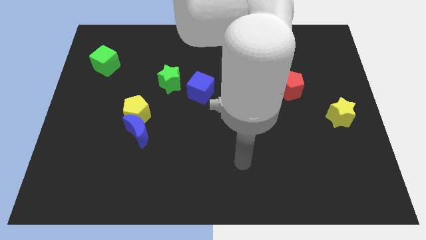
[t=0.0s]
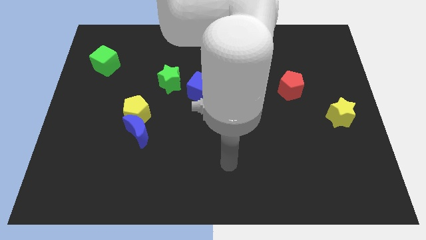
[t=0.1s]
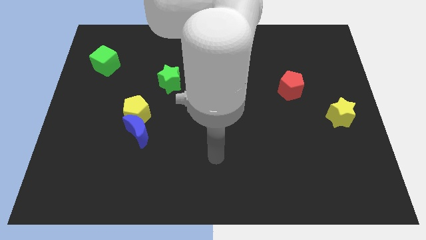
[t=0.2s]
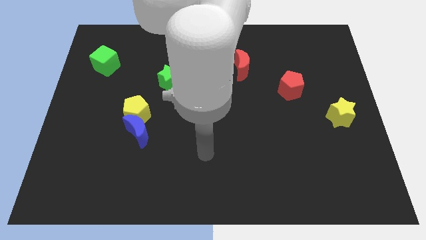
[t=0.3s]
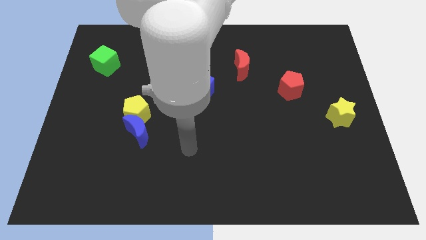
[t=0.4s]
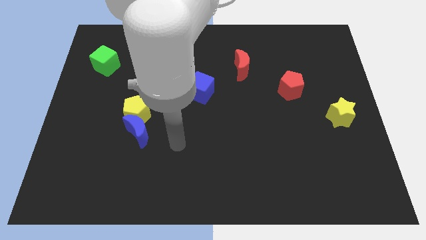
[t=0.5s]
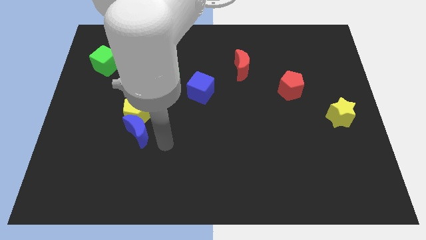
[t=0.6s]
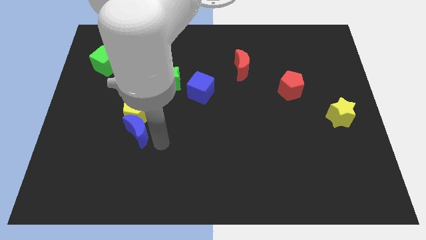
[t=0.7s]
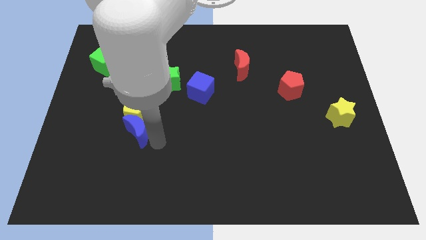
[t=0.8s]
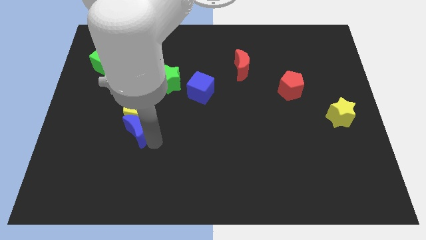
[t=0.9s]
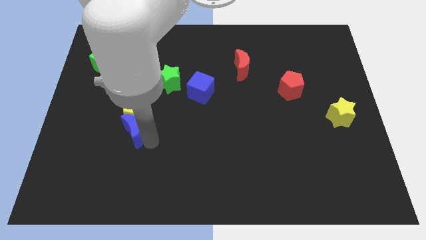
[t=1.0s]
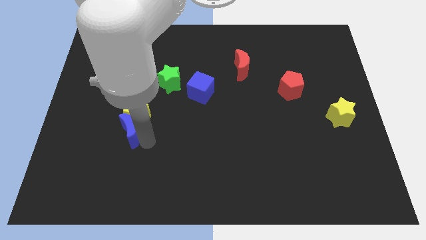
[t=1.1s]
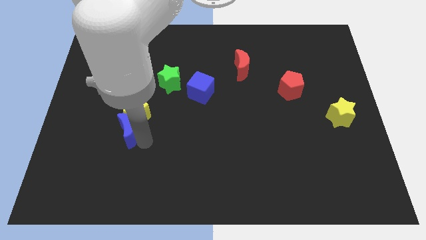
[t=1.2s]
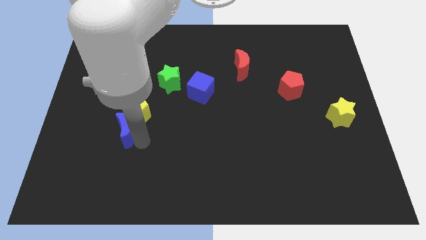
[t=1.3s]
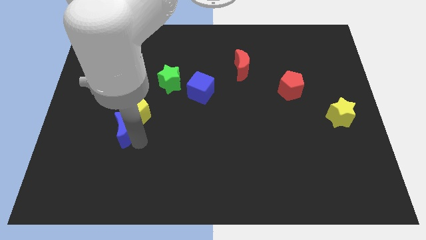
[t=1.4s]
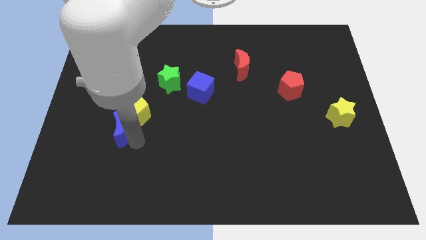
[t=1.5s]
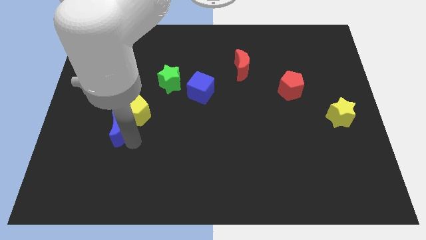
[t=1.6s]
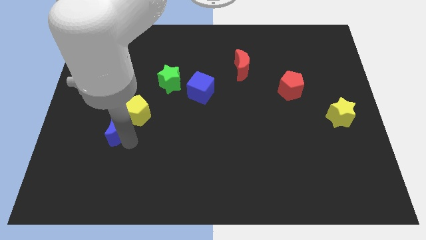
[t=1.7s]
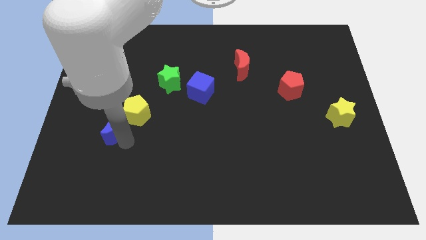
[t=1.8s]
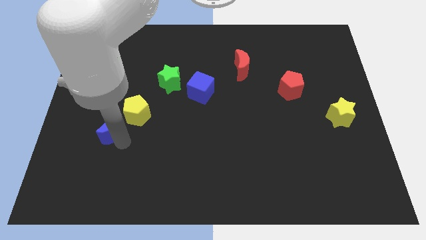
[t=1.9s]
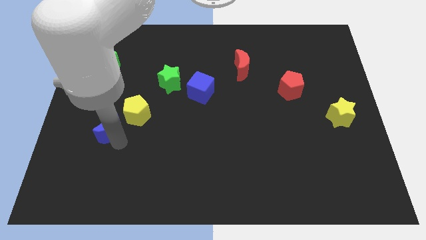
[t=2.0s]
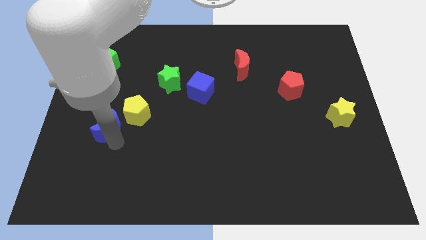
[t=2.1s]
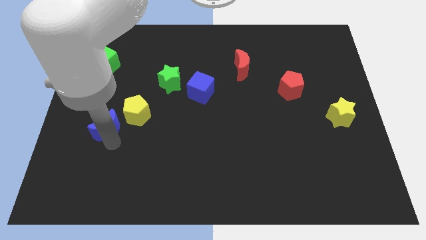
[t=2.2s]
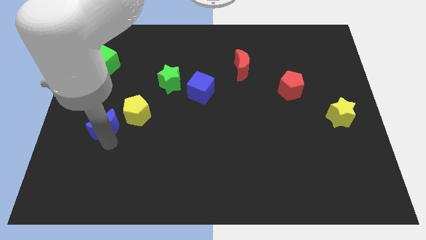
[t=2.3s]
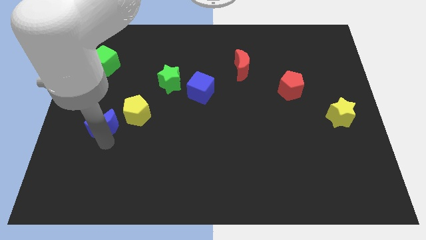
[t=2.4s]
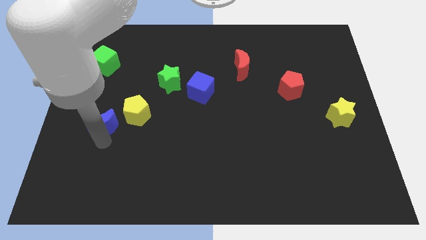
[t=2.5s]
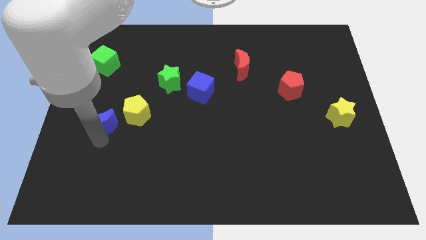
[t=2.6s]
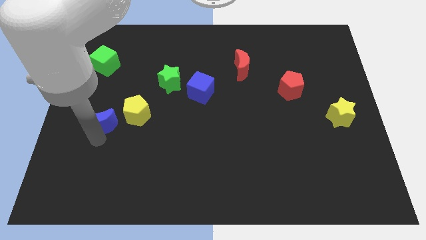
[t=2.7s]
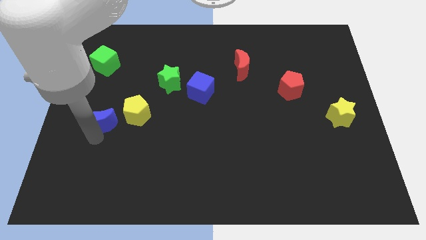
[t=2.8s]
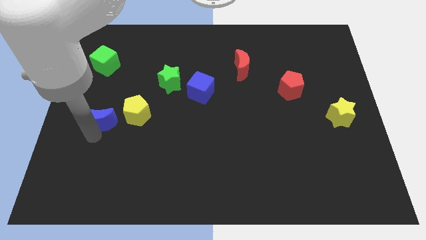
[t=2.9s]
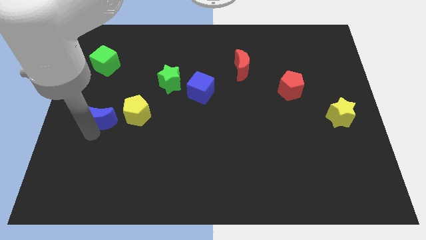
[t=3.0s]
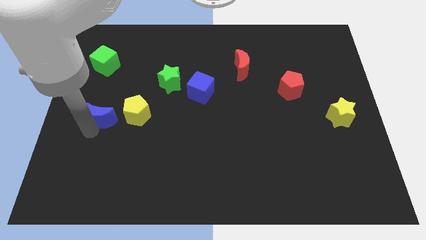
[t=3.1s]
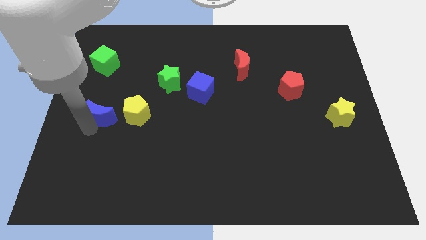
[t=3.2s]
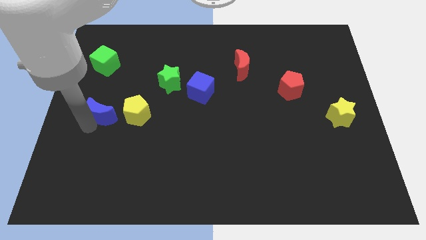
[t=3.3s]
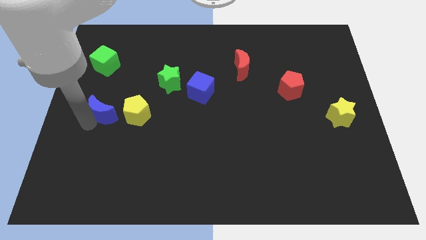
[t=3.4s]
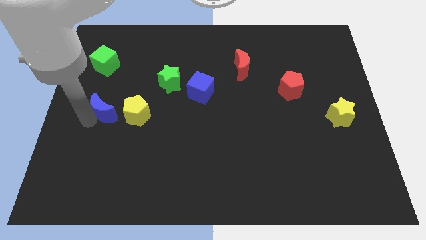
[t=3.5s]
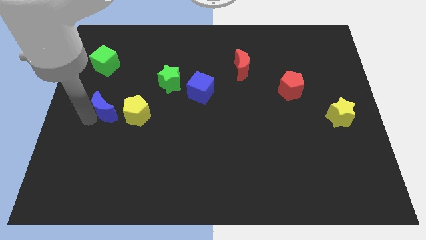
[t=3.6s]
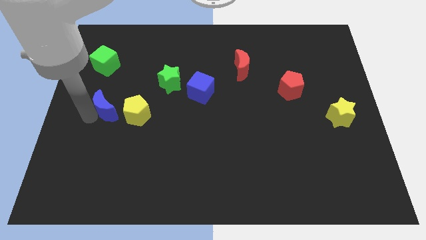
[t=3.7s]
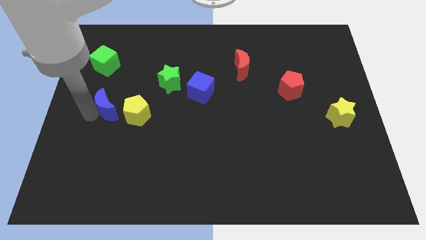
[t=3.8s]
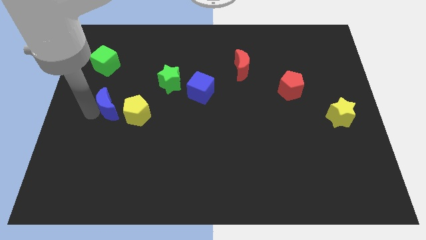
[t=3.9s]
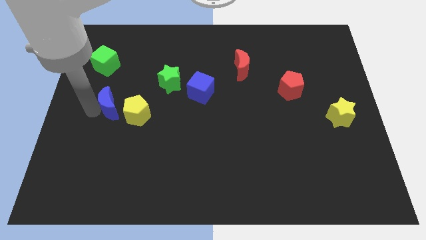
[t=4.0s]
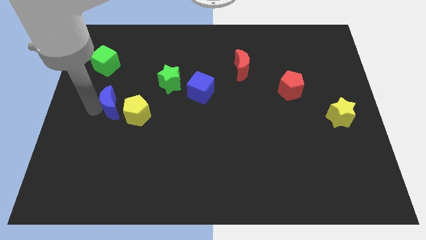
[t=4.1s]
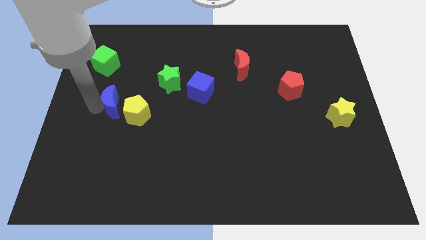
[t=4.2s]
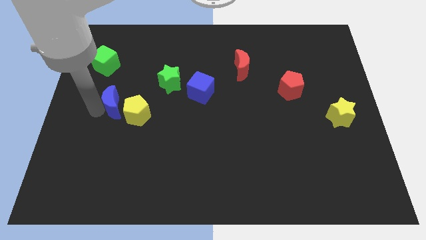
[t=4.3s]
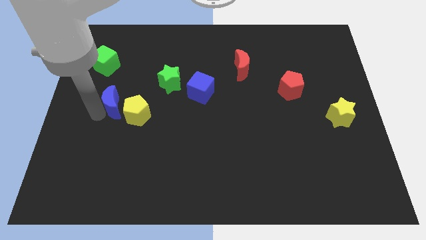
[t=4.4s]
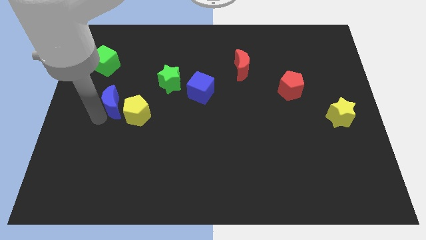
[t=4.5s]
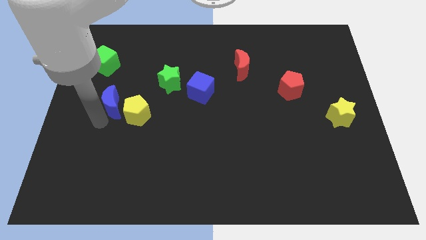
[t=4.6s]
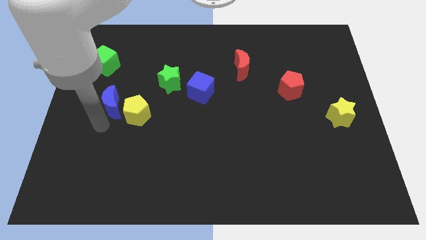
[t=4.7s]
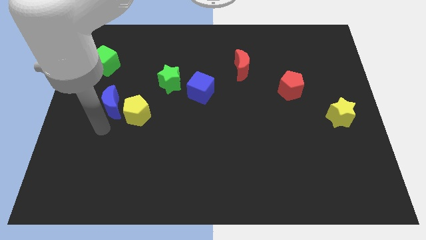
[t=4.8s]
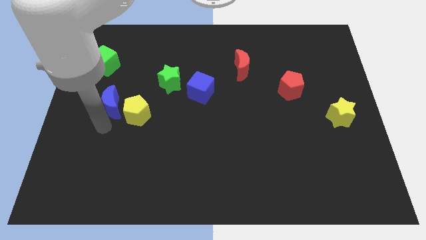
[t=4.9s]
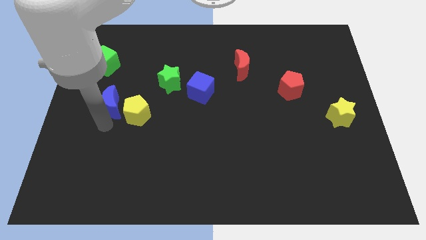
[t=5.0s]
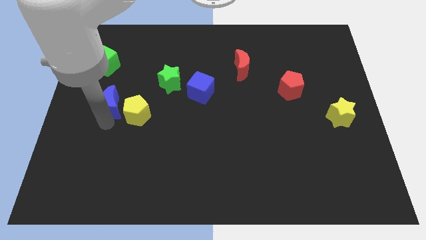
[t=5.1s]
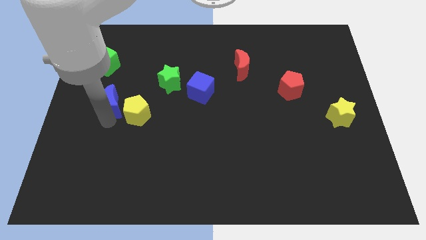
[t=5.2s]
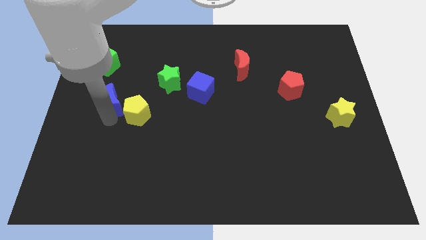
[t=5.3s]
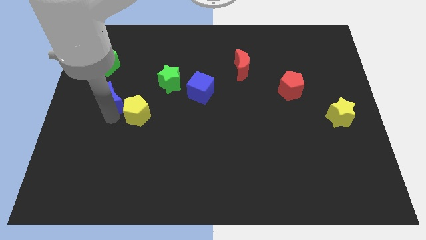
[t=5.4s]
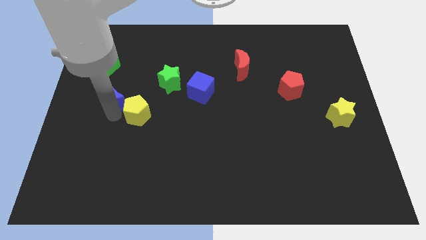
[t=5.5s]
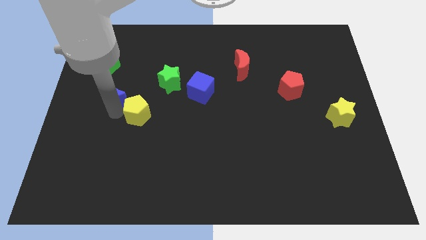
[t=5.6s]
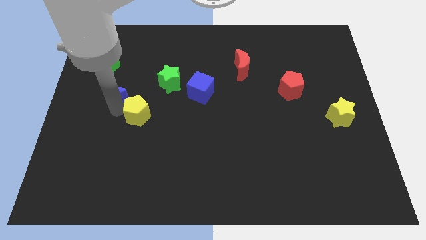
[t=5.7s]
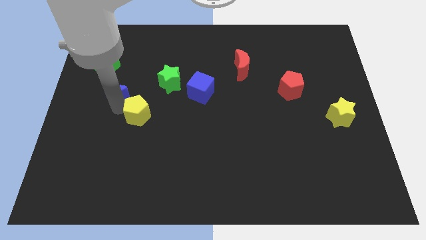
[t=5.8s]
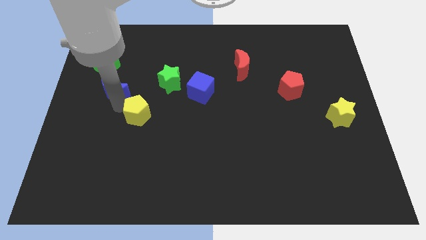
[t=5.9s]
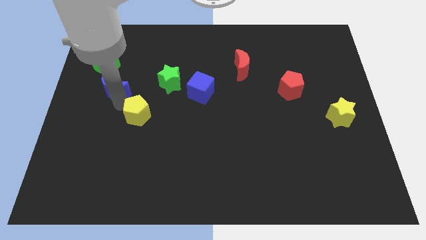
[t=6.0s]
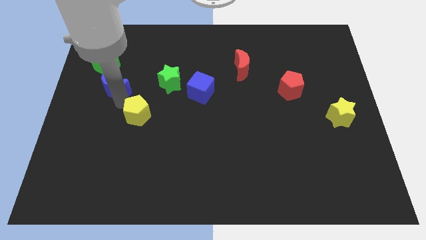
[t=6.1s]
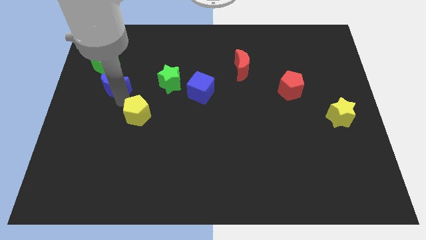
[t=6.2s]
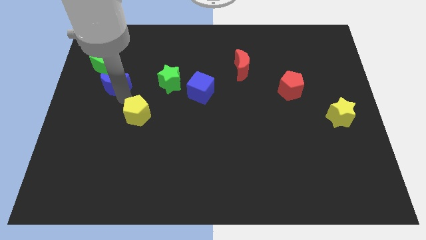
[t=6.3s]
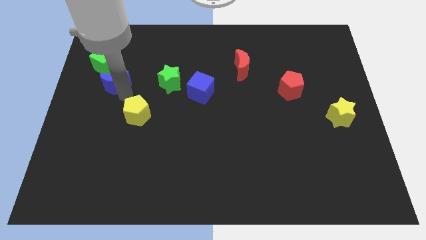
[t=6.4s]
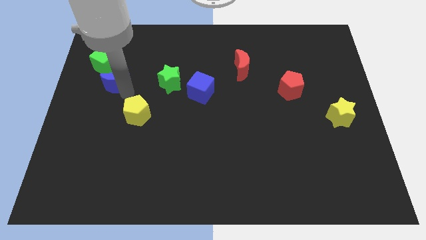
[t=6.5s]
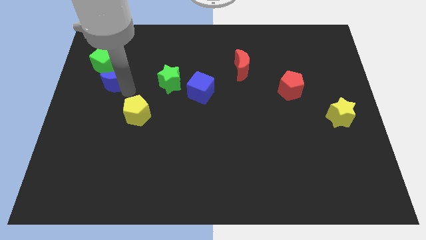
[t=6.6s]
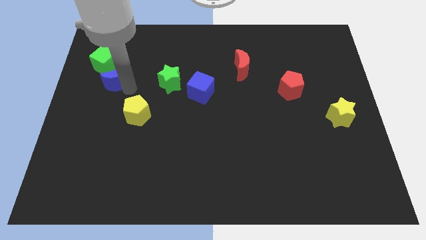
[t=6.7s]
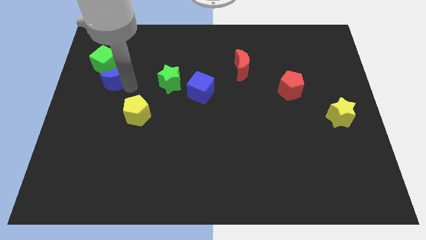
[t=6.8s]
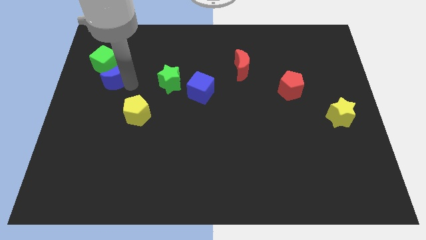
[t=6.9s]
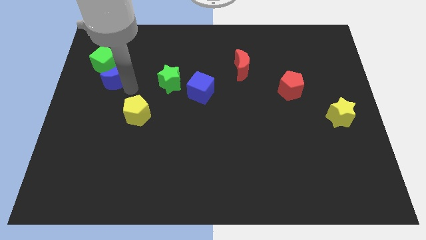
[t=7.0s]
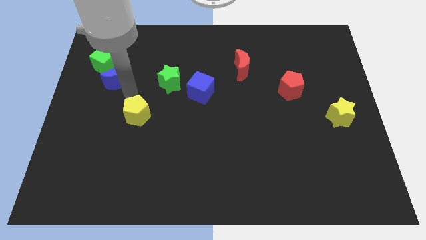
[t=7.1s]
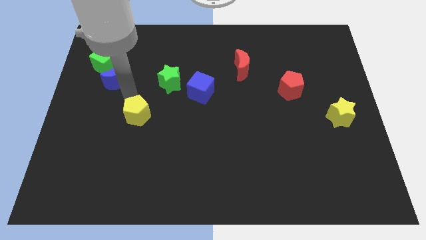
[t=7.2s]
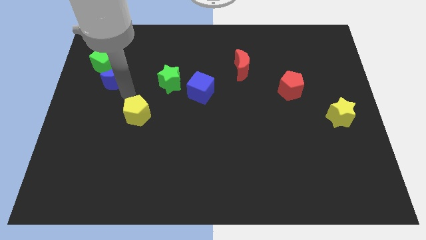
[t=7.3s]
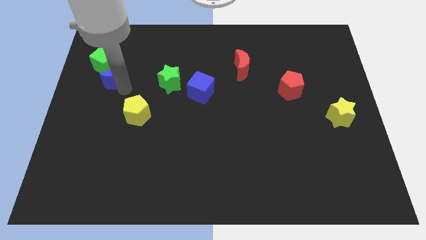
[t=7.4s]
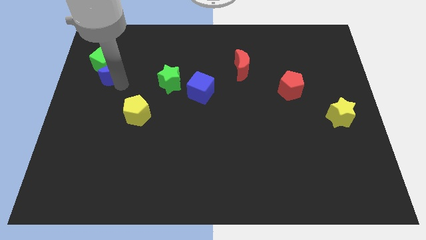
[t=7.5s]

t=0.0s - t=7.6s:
move the blue moon to the green cube

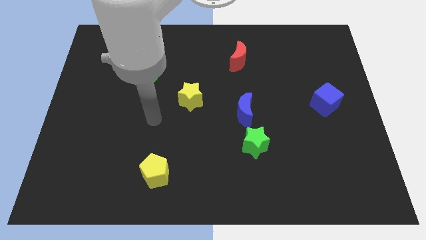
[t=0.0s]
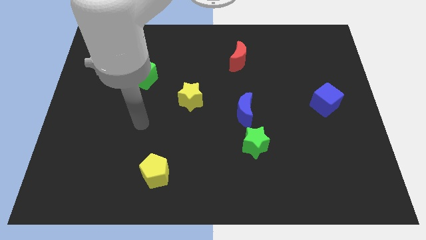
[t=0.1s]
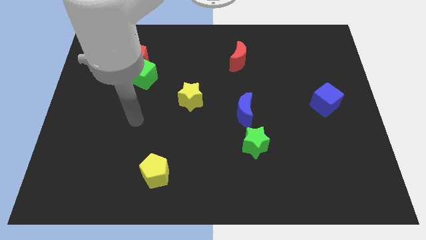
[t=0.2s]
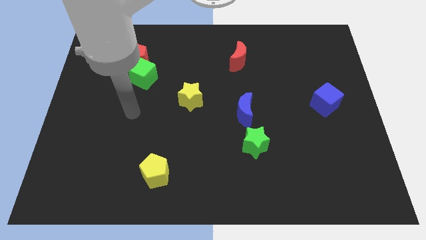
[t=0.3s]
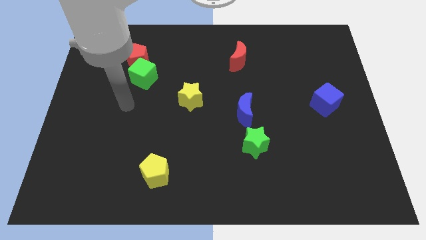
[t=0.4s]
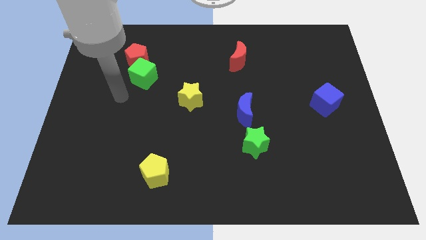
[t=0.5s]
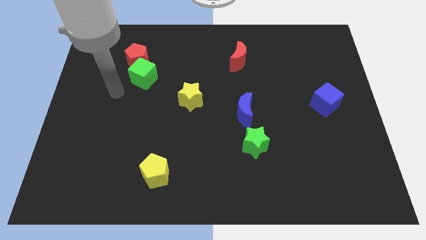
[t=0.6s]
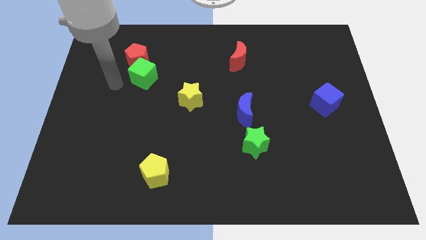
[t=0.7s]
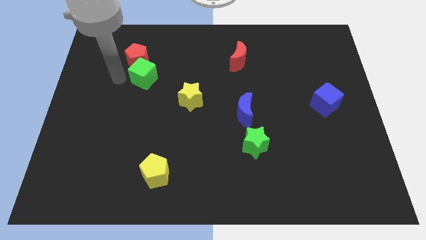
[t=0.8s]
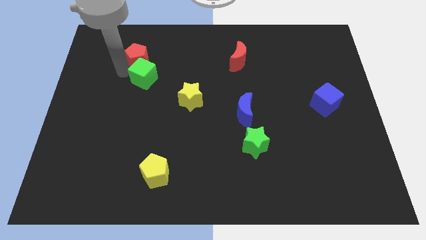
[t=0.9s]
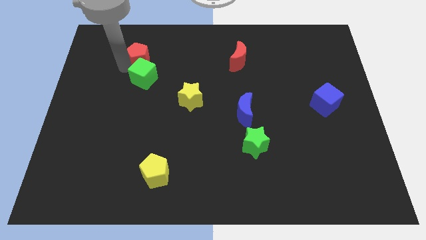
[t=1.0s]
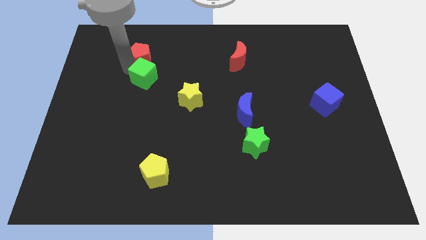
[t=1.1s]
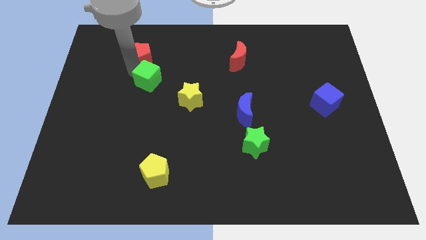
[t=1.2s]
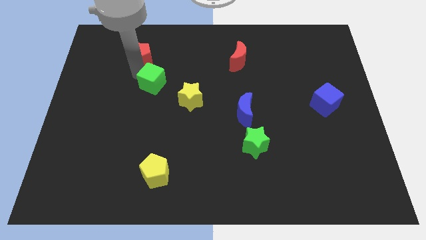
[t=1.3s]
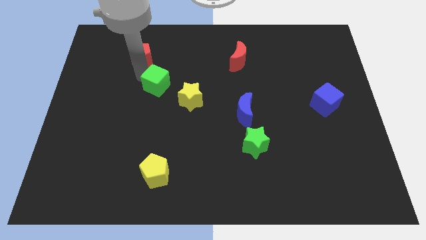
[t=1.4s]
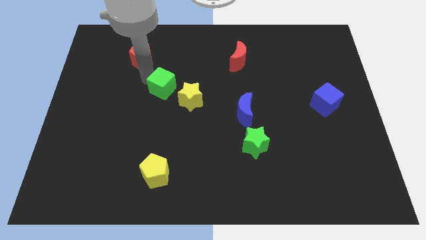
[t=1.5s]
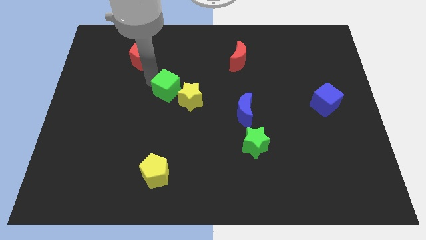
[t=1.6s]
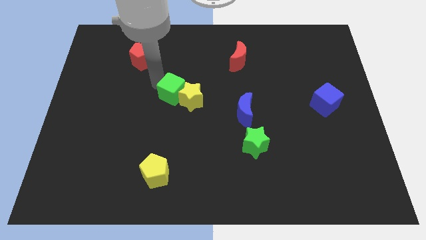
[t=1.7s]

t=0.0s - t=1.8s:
move the green cube next to the yellow star
